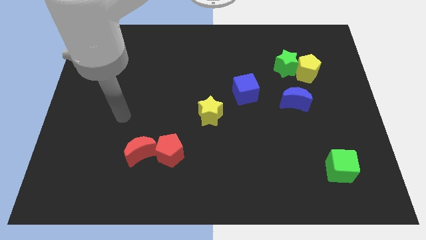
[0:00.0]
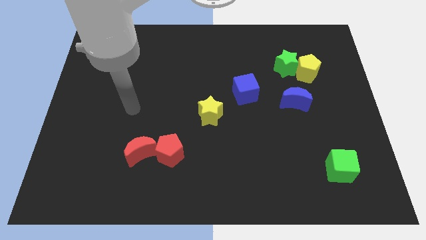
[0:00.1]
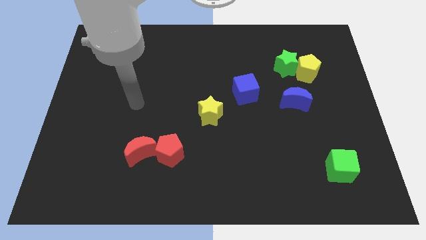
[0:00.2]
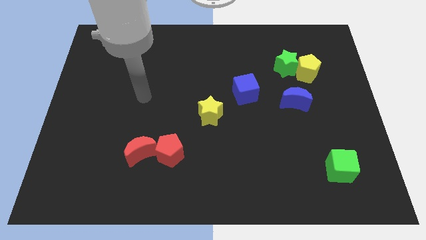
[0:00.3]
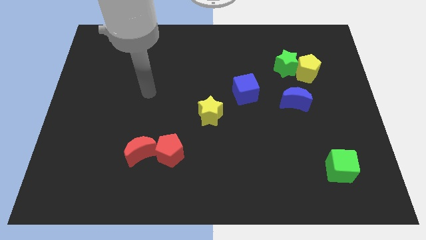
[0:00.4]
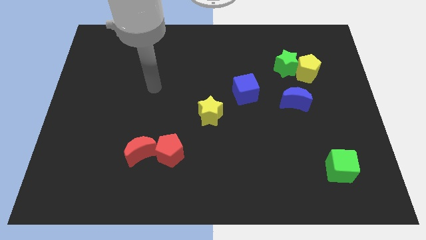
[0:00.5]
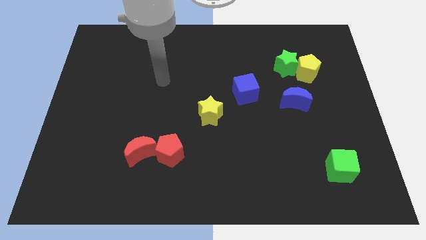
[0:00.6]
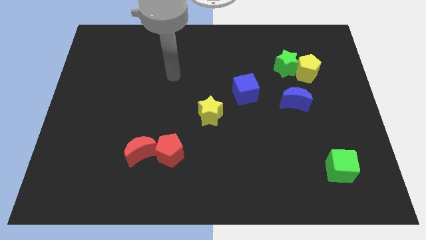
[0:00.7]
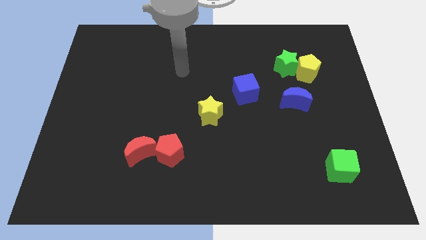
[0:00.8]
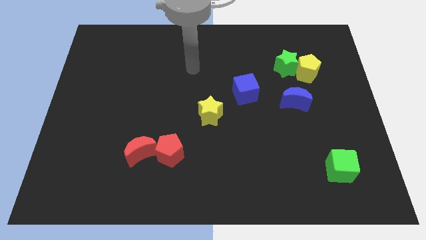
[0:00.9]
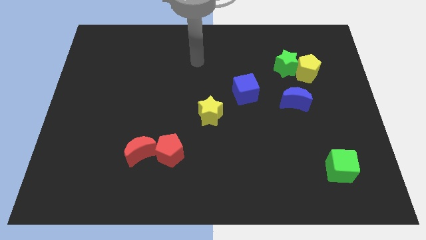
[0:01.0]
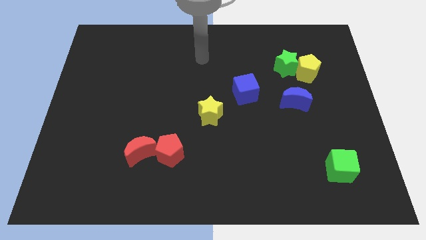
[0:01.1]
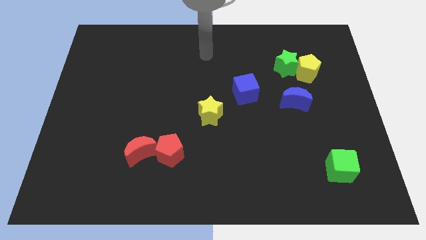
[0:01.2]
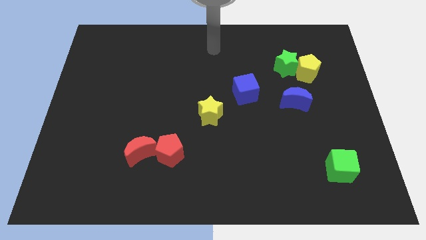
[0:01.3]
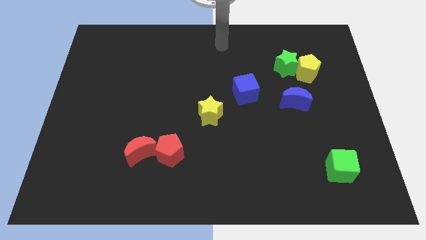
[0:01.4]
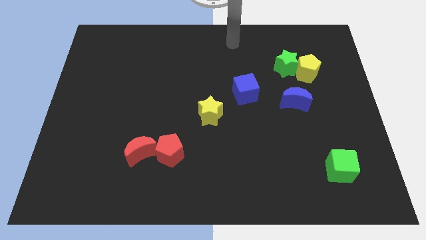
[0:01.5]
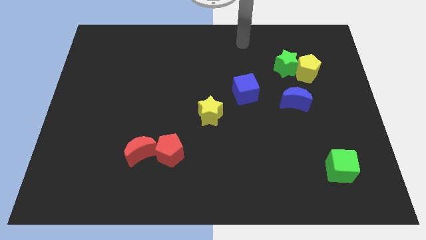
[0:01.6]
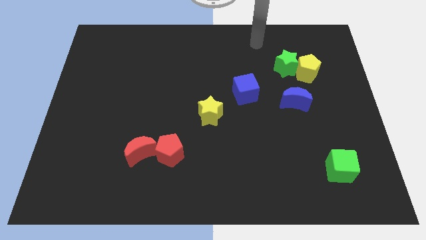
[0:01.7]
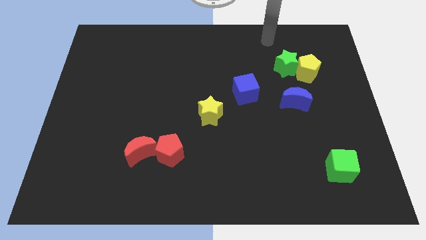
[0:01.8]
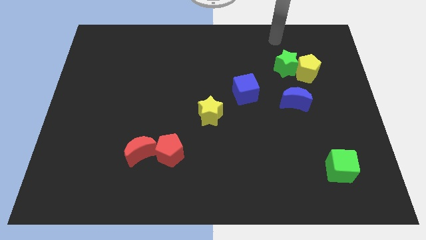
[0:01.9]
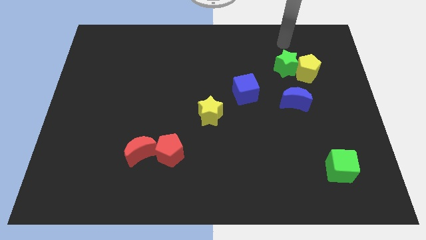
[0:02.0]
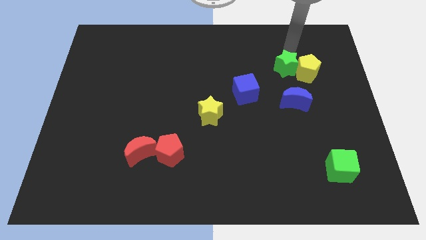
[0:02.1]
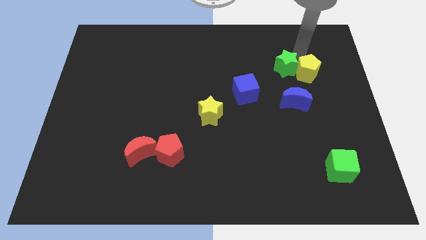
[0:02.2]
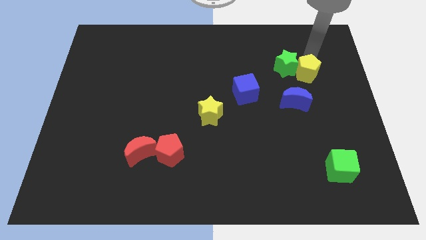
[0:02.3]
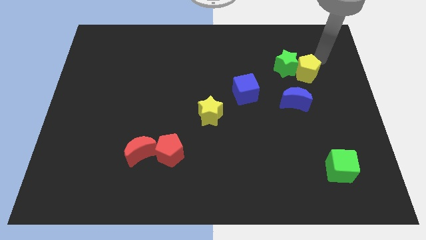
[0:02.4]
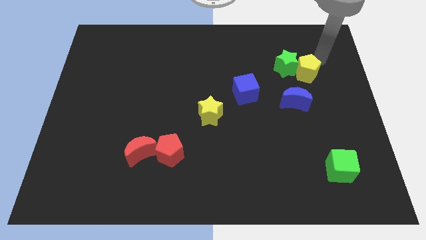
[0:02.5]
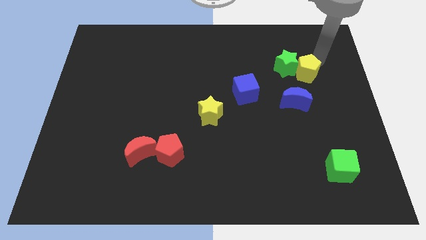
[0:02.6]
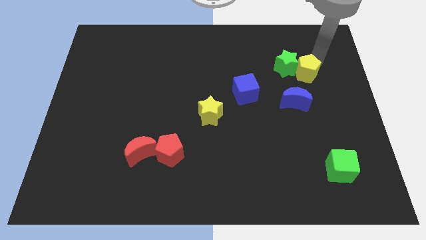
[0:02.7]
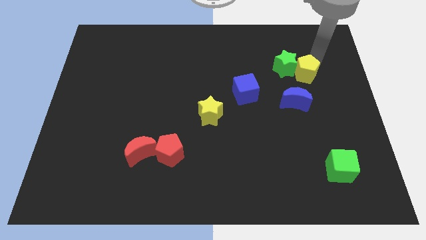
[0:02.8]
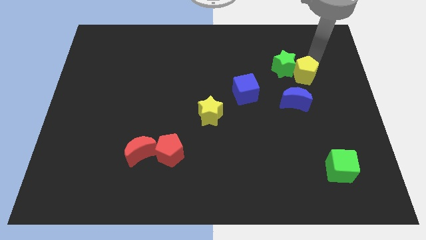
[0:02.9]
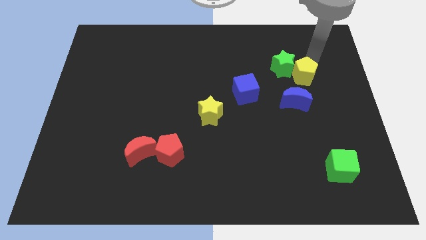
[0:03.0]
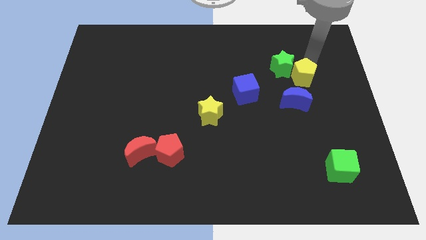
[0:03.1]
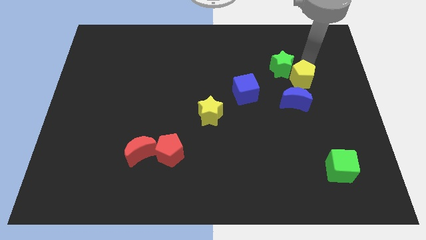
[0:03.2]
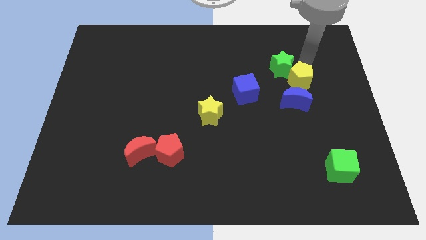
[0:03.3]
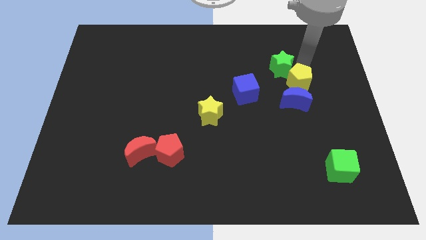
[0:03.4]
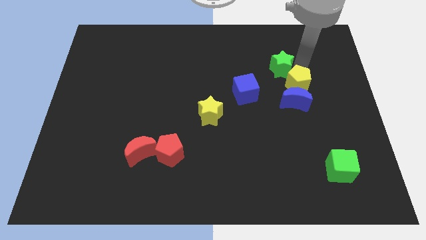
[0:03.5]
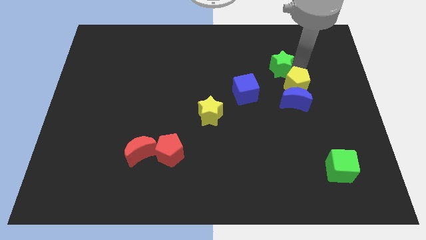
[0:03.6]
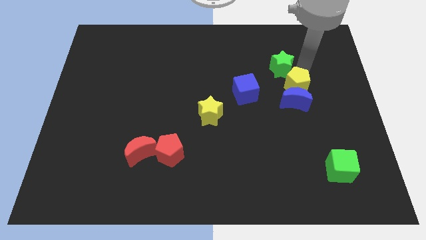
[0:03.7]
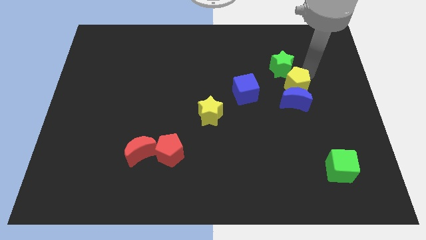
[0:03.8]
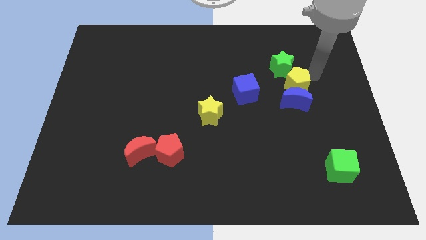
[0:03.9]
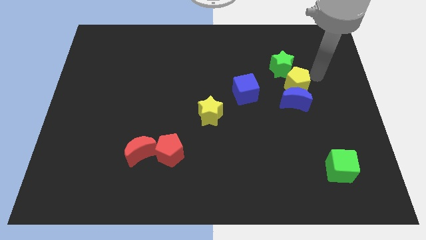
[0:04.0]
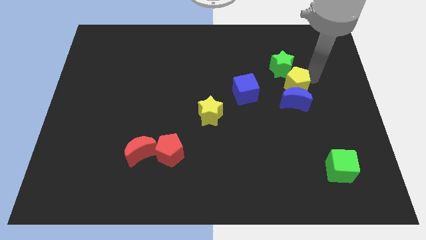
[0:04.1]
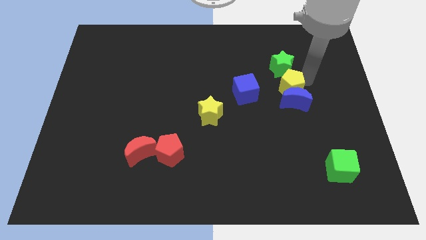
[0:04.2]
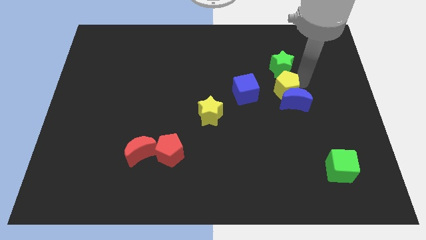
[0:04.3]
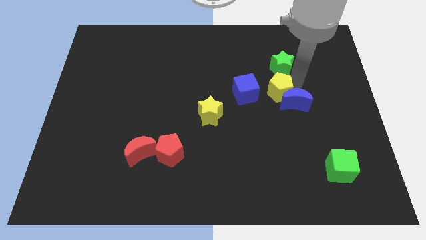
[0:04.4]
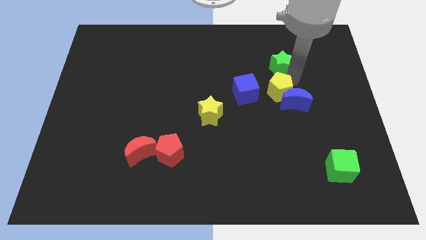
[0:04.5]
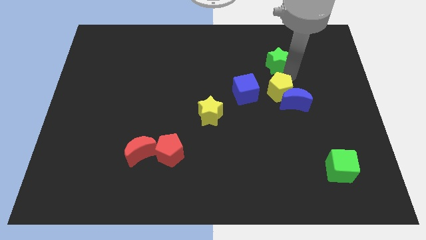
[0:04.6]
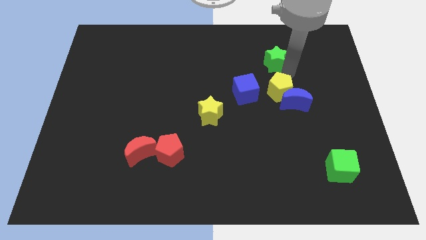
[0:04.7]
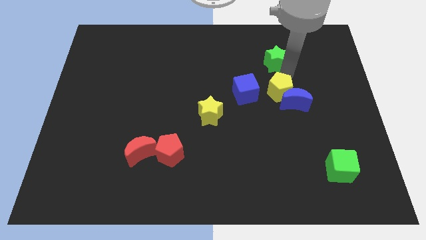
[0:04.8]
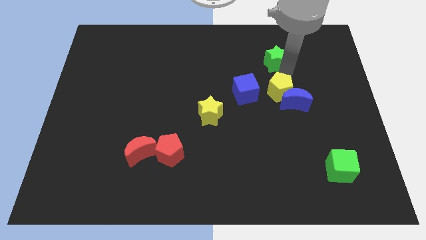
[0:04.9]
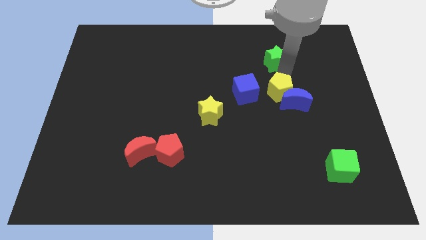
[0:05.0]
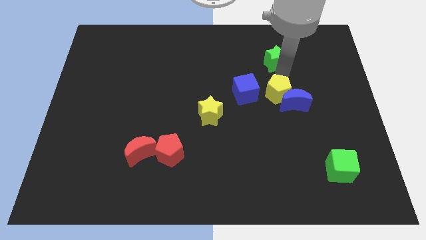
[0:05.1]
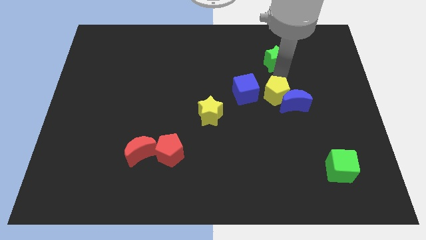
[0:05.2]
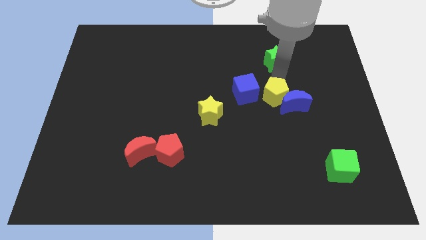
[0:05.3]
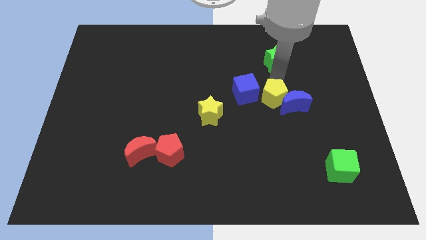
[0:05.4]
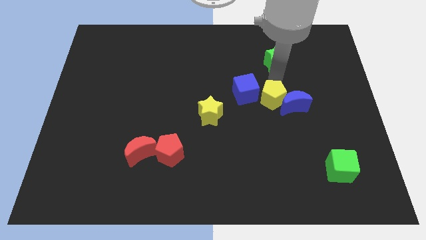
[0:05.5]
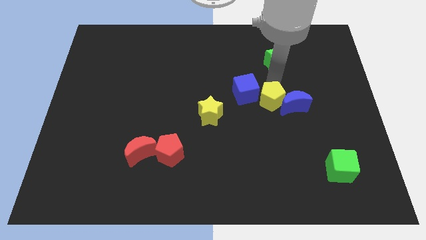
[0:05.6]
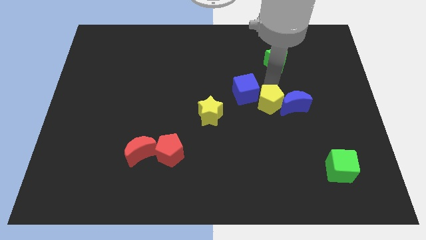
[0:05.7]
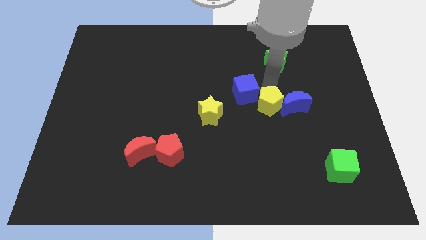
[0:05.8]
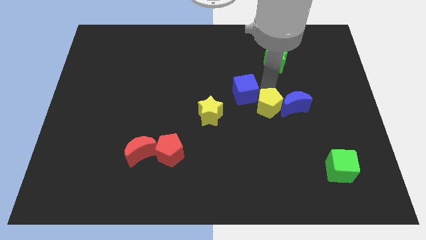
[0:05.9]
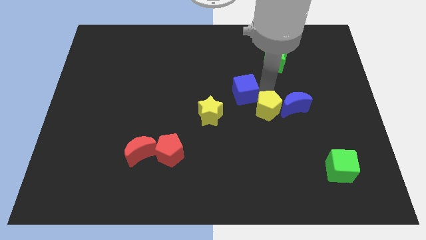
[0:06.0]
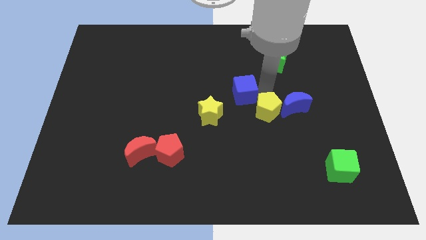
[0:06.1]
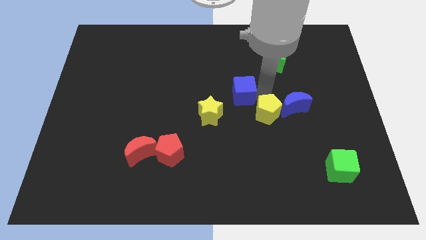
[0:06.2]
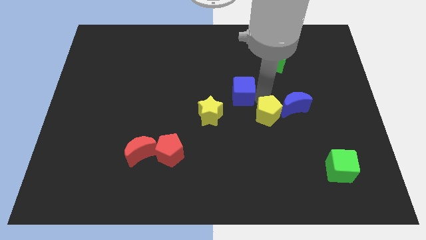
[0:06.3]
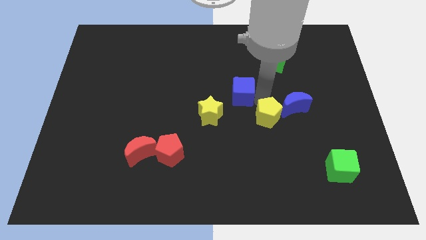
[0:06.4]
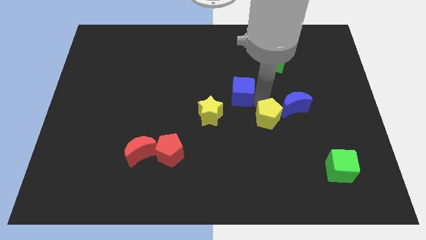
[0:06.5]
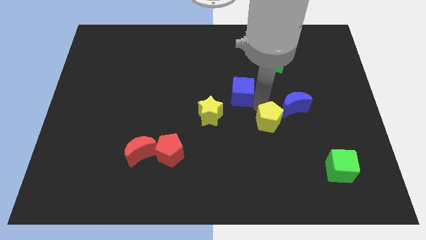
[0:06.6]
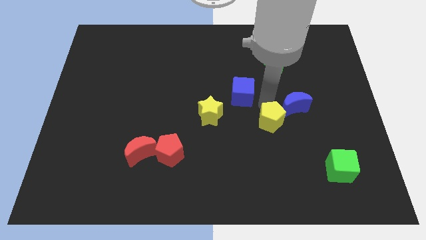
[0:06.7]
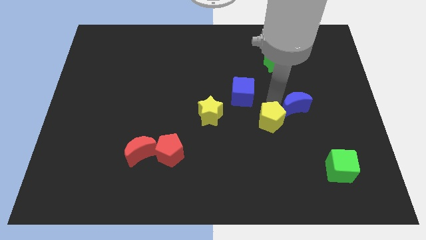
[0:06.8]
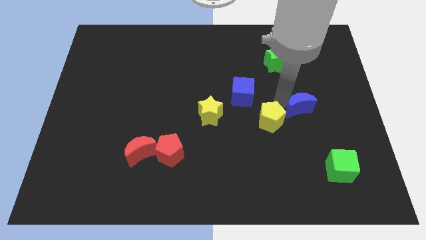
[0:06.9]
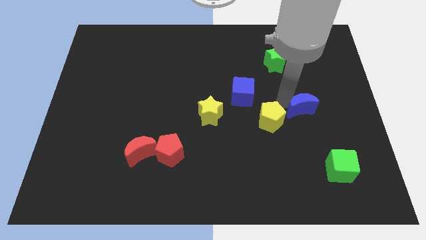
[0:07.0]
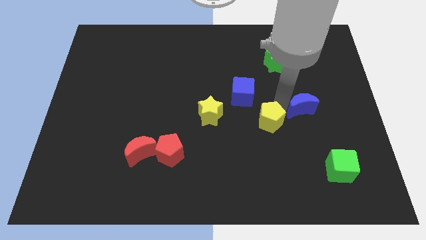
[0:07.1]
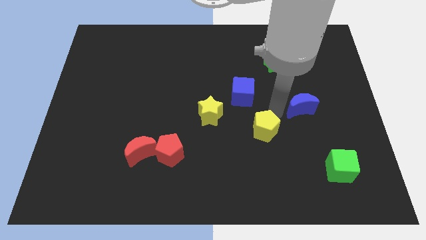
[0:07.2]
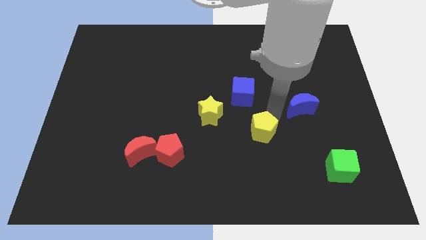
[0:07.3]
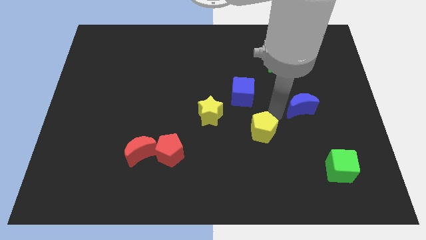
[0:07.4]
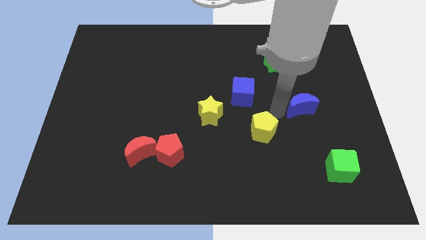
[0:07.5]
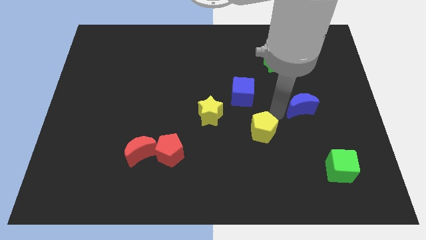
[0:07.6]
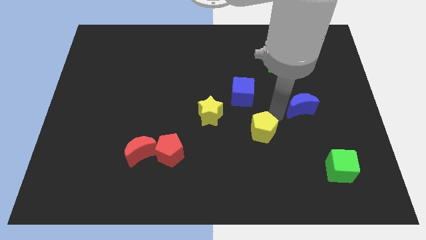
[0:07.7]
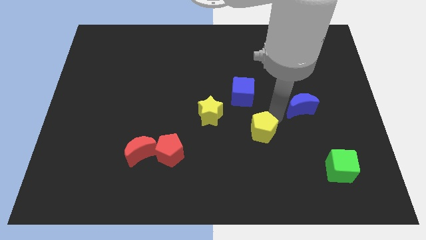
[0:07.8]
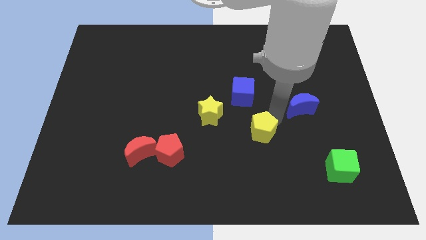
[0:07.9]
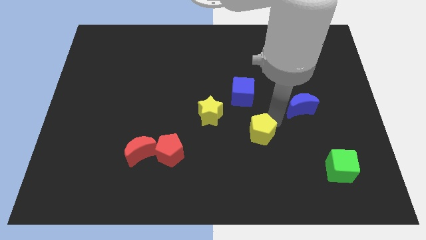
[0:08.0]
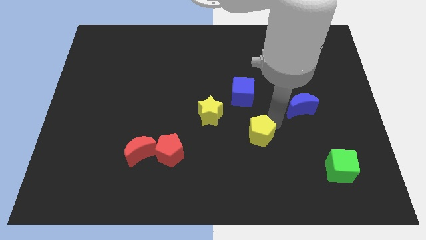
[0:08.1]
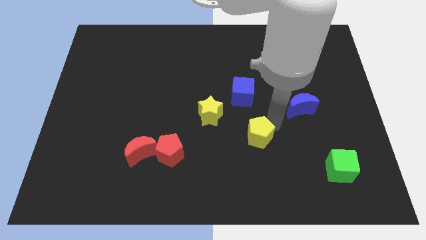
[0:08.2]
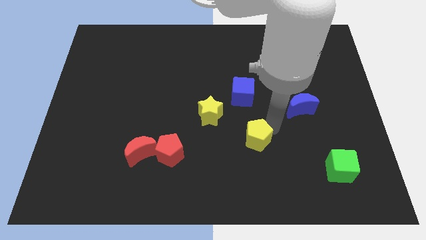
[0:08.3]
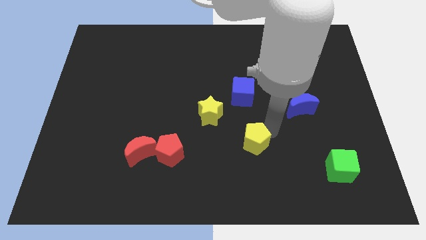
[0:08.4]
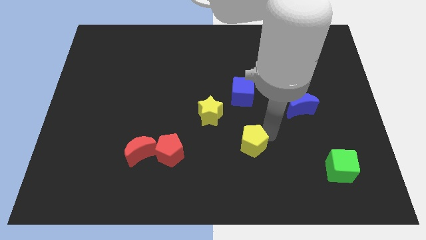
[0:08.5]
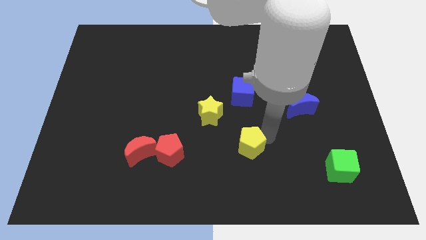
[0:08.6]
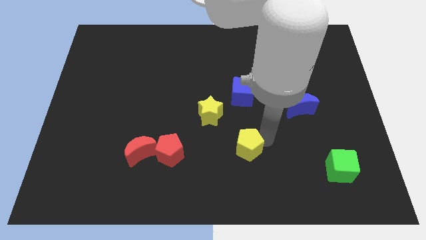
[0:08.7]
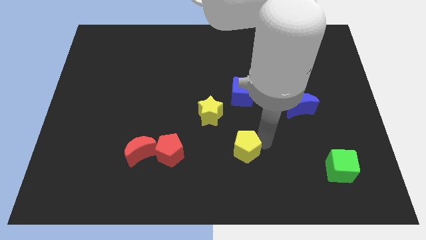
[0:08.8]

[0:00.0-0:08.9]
push the yellow pentagon right of the red pentagon
